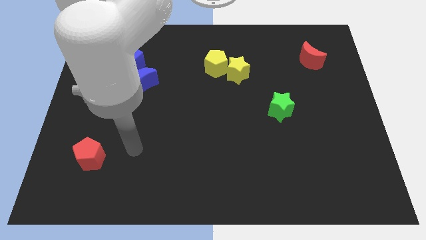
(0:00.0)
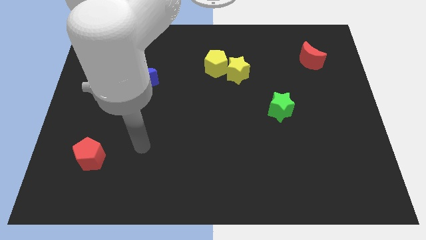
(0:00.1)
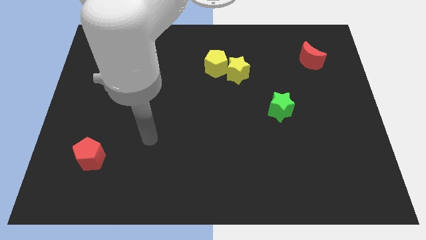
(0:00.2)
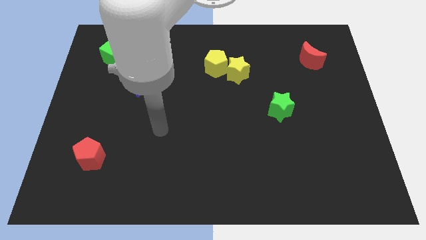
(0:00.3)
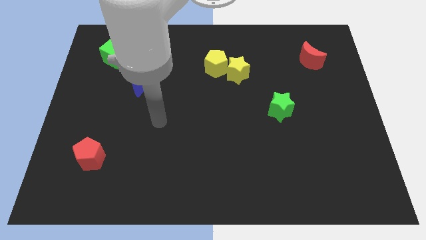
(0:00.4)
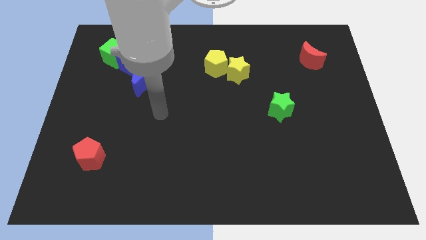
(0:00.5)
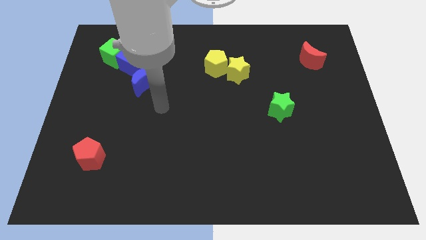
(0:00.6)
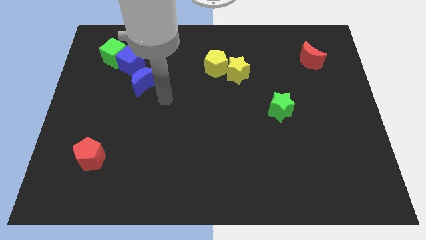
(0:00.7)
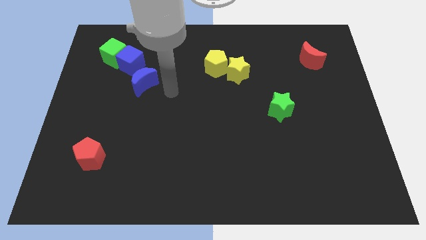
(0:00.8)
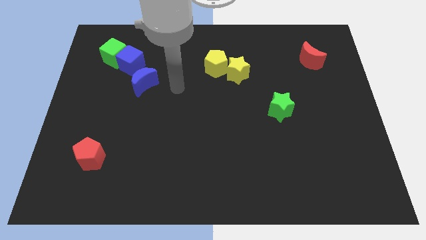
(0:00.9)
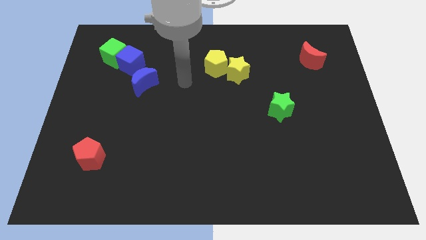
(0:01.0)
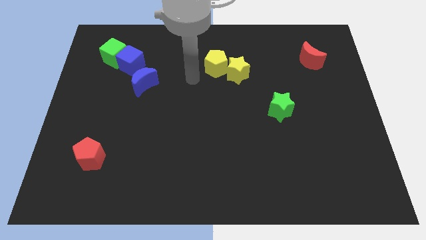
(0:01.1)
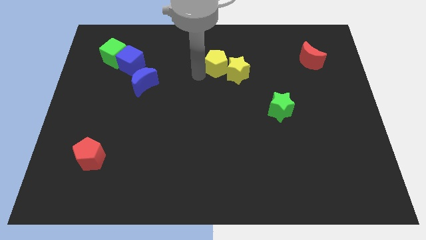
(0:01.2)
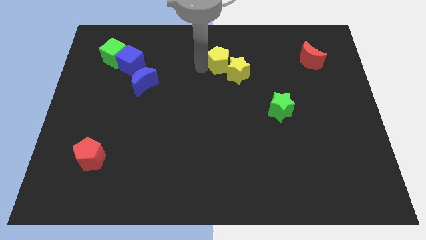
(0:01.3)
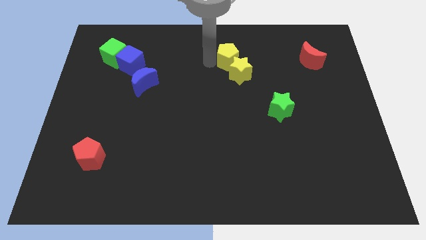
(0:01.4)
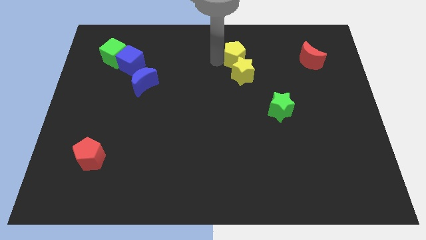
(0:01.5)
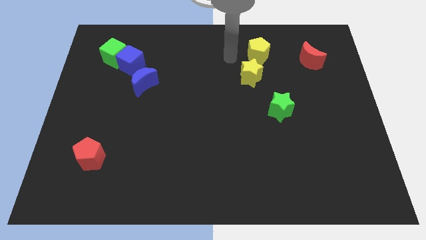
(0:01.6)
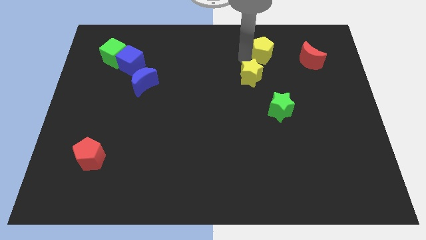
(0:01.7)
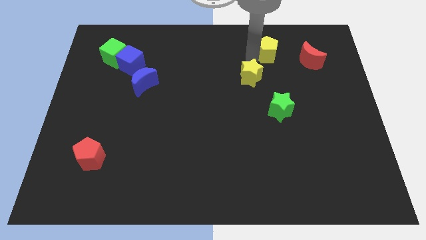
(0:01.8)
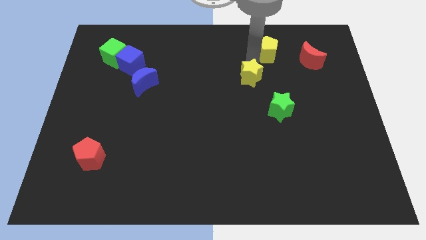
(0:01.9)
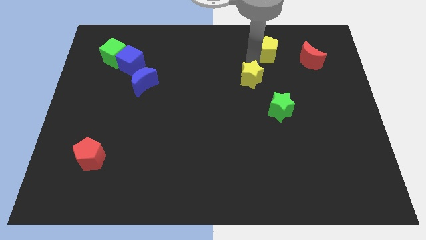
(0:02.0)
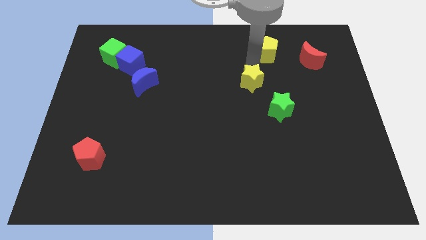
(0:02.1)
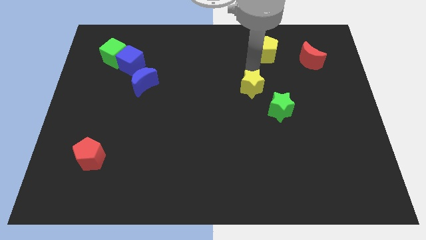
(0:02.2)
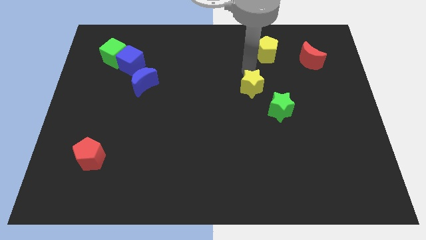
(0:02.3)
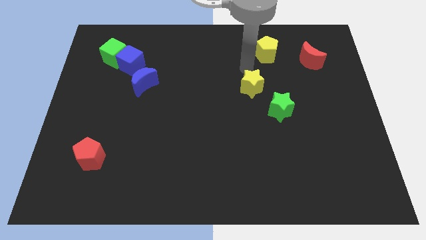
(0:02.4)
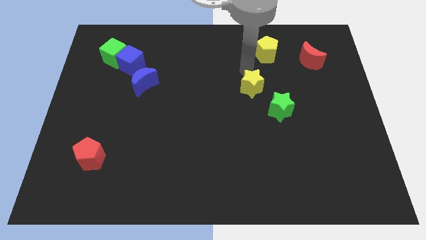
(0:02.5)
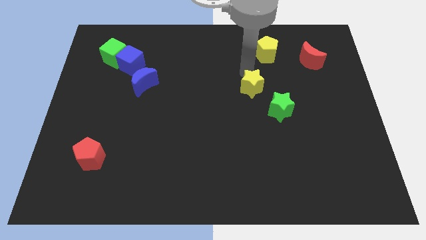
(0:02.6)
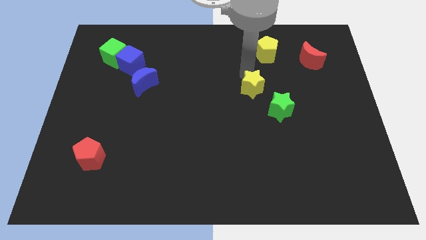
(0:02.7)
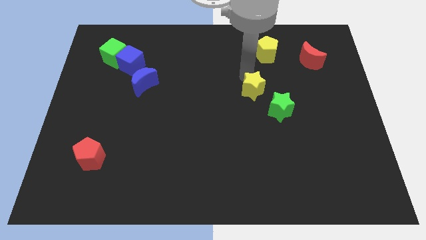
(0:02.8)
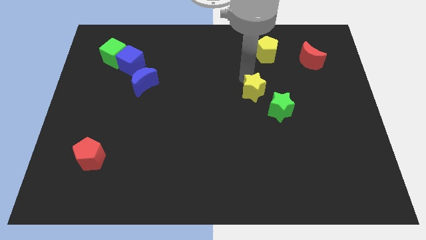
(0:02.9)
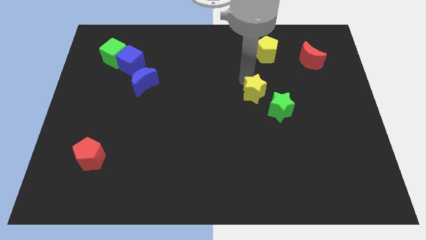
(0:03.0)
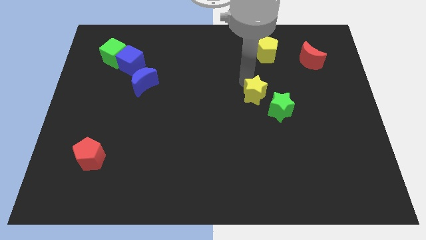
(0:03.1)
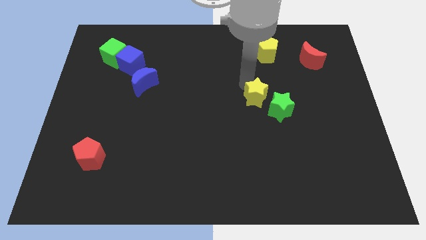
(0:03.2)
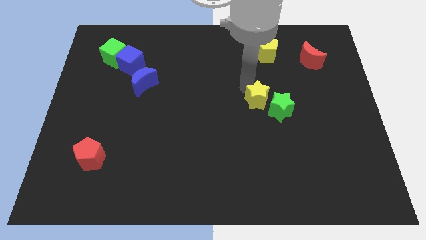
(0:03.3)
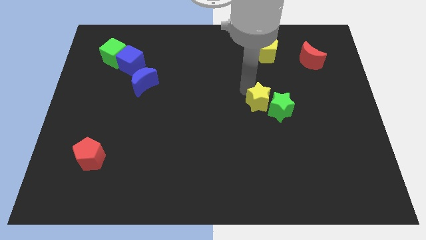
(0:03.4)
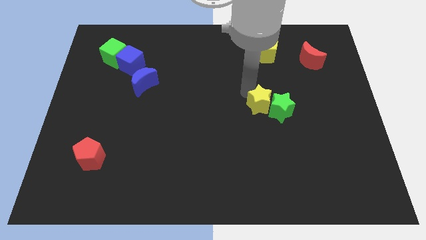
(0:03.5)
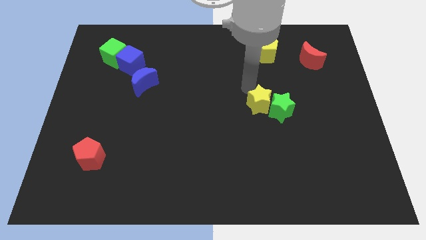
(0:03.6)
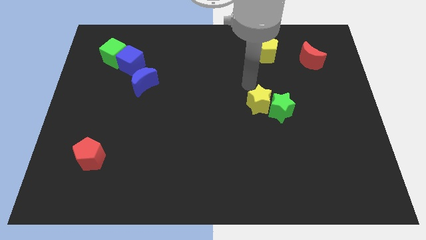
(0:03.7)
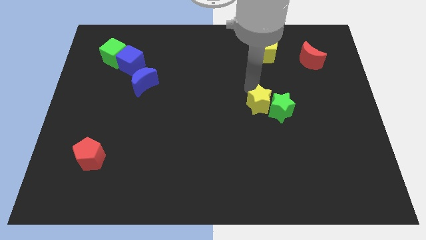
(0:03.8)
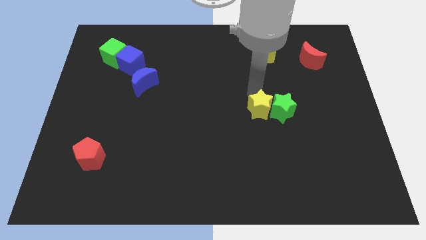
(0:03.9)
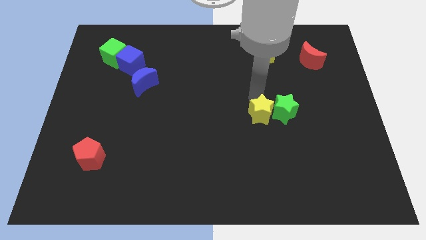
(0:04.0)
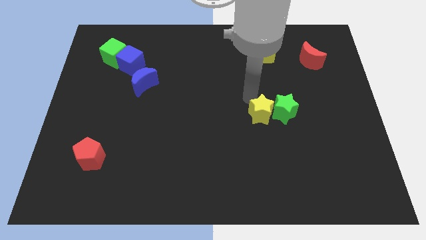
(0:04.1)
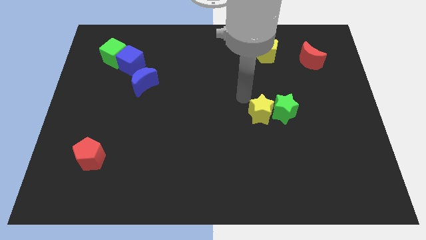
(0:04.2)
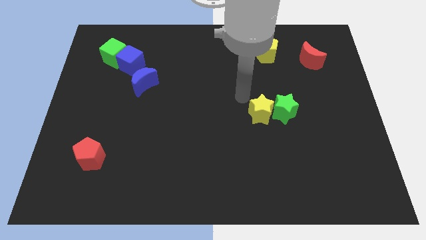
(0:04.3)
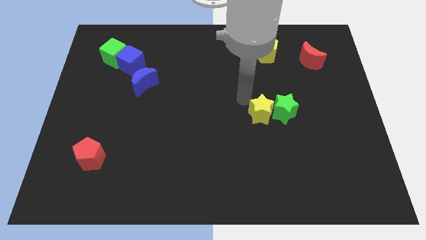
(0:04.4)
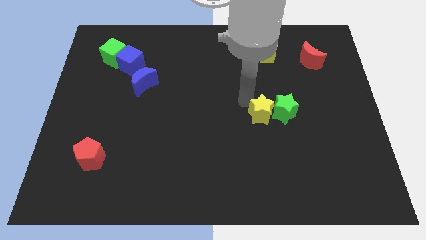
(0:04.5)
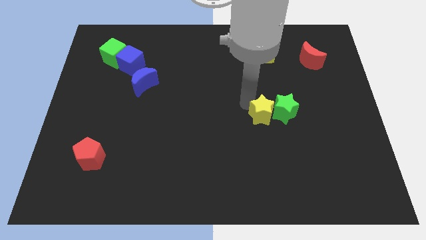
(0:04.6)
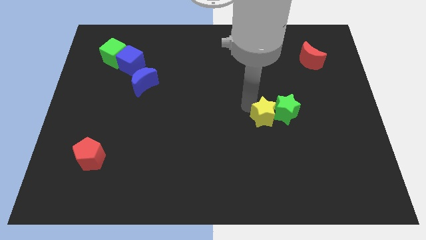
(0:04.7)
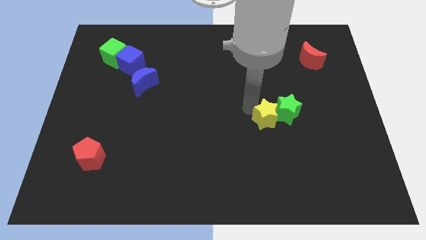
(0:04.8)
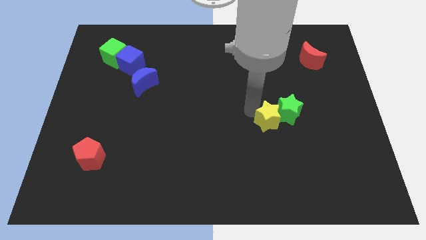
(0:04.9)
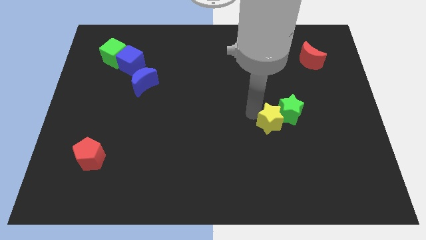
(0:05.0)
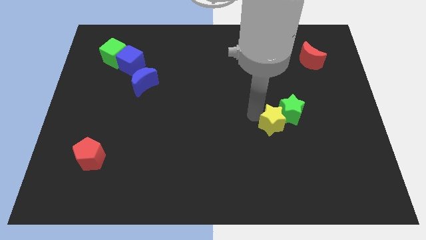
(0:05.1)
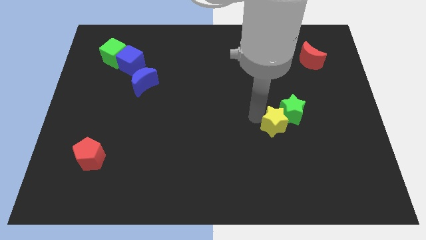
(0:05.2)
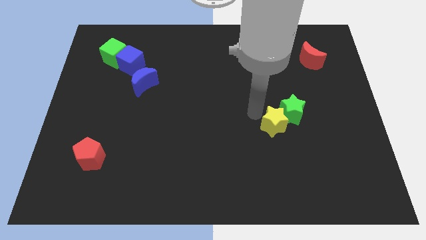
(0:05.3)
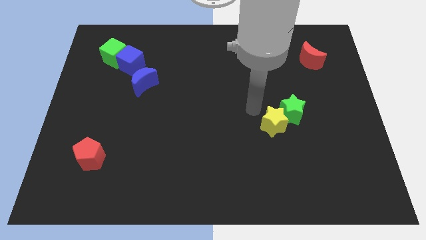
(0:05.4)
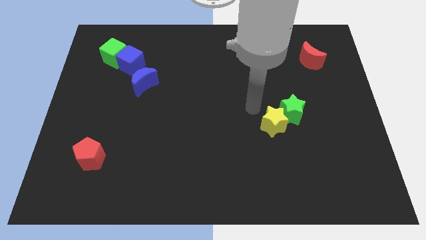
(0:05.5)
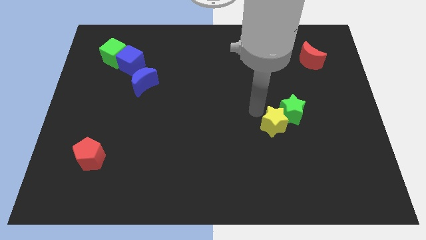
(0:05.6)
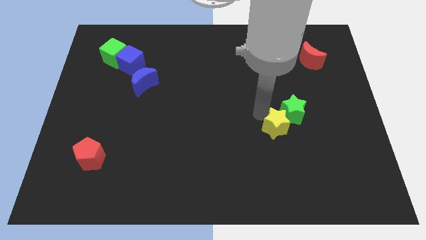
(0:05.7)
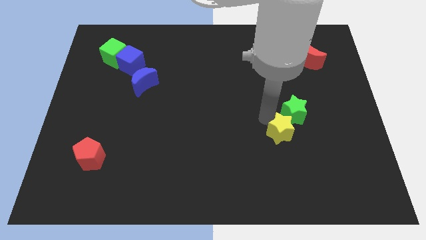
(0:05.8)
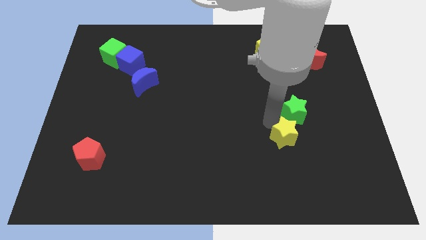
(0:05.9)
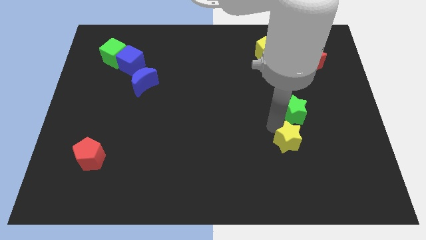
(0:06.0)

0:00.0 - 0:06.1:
slide the yellow star downwards and right

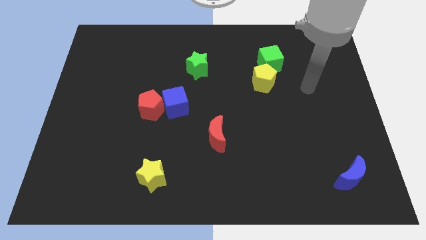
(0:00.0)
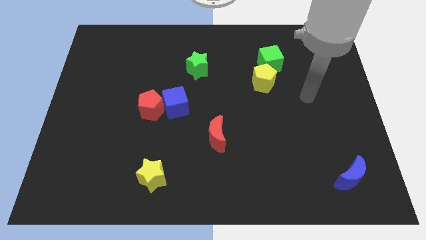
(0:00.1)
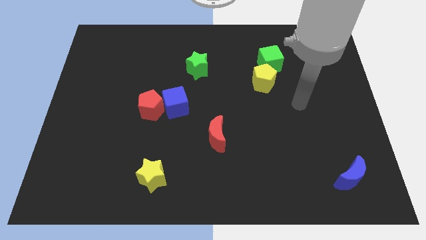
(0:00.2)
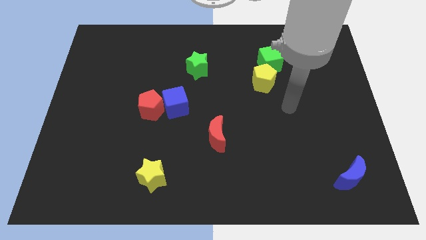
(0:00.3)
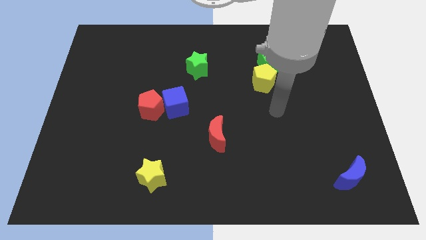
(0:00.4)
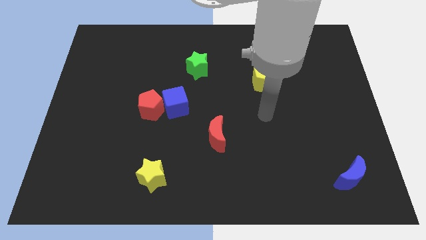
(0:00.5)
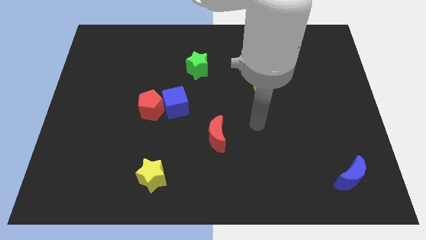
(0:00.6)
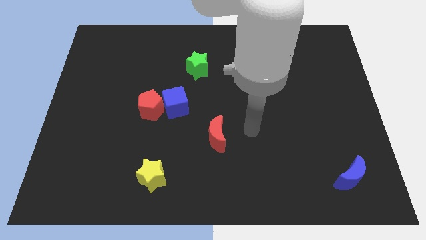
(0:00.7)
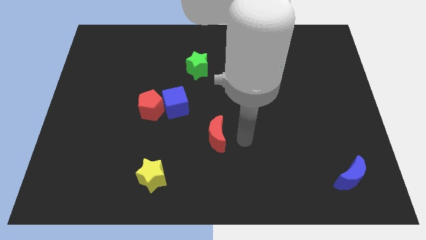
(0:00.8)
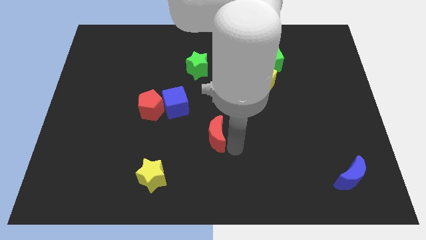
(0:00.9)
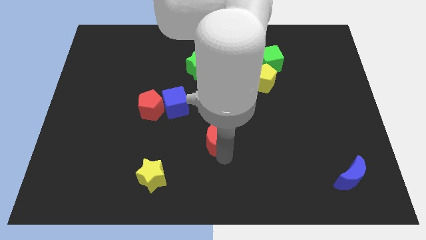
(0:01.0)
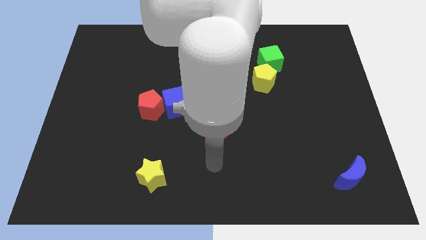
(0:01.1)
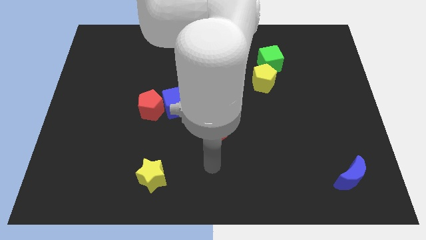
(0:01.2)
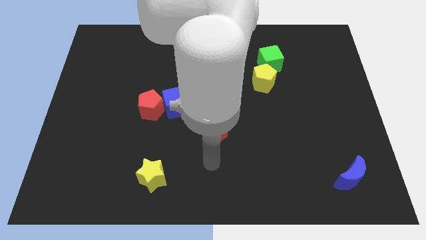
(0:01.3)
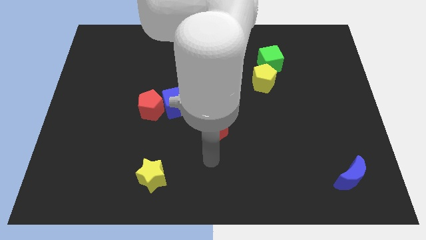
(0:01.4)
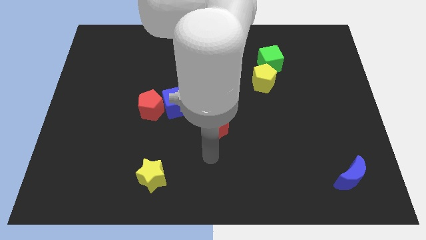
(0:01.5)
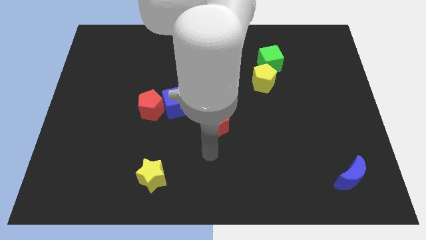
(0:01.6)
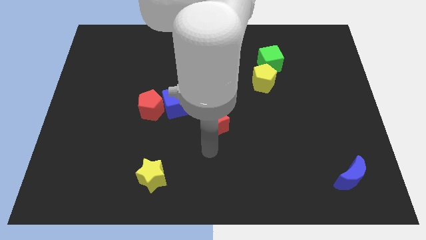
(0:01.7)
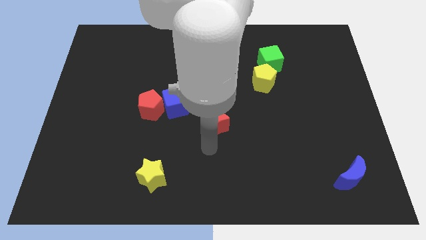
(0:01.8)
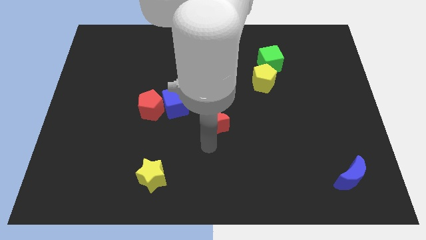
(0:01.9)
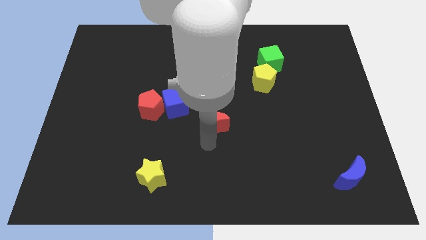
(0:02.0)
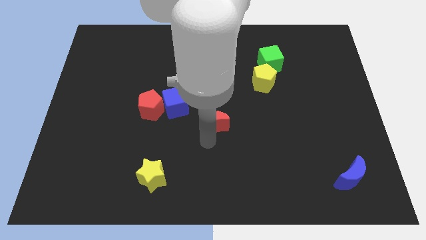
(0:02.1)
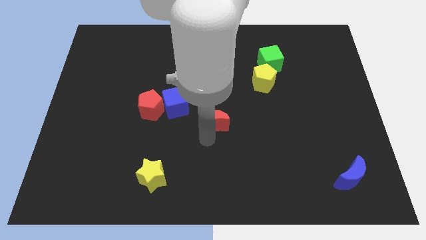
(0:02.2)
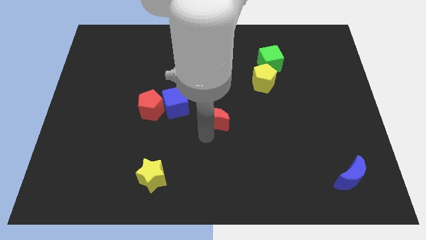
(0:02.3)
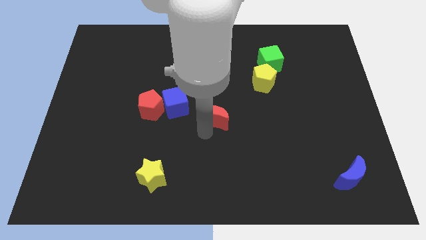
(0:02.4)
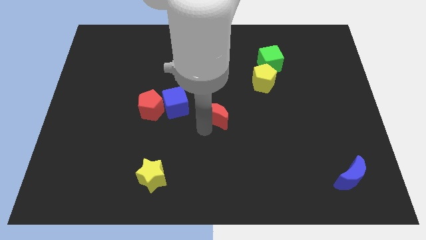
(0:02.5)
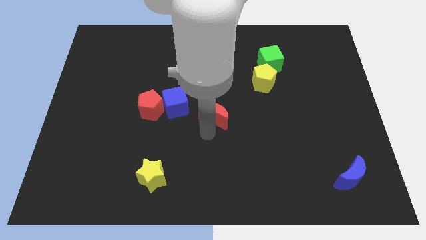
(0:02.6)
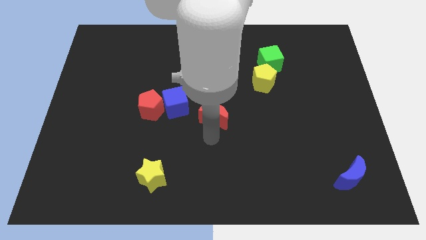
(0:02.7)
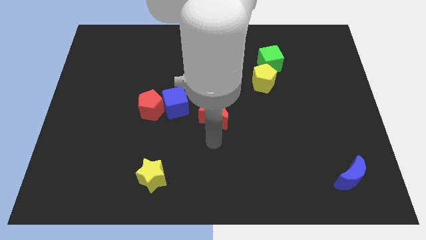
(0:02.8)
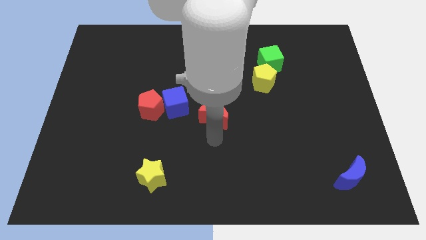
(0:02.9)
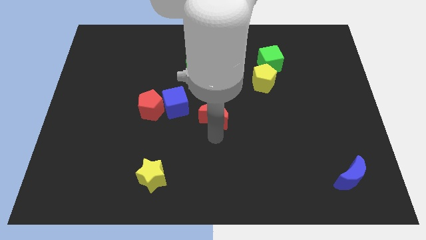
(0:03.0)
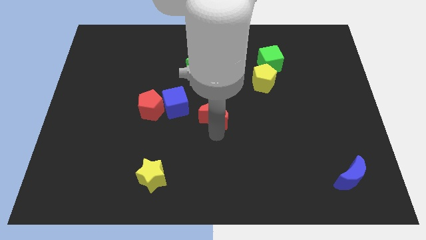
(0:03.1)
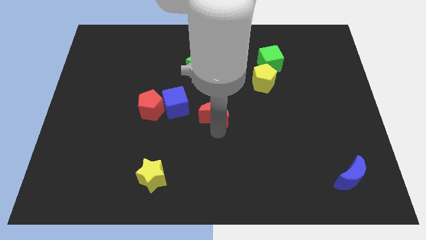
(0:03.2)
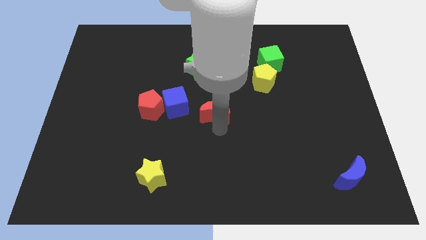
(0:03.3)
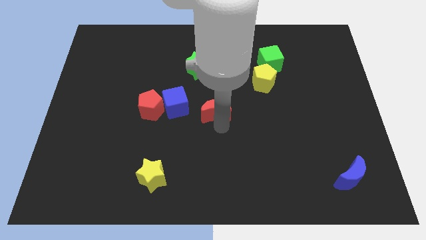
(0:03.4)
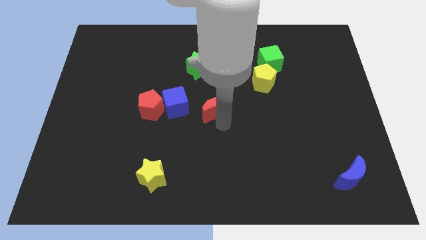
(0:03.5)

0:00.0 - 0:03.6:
slide the red moon upwards slightly
